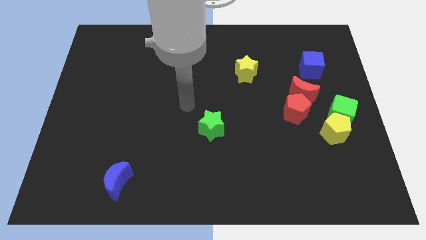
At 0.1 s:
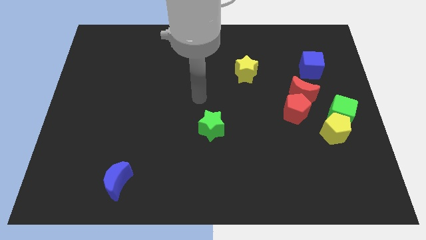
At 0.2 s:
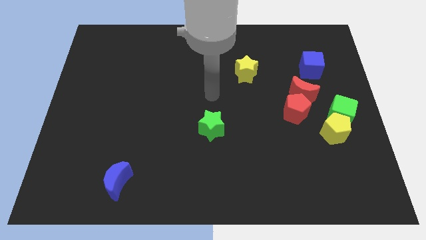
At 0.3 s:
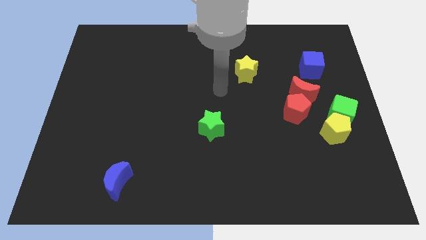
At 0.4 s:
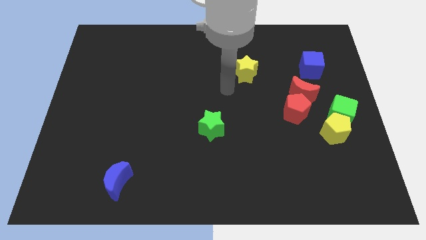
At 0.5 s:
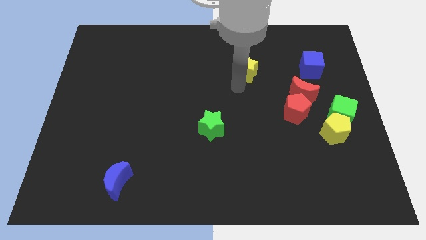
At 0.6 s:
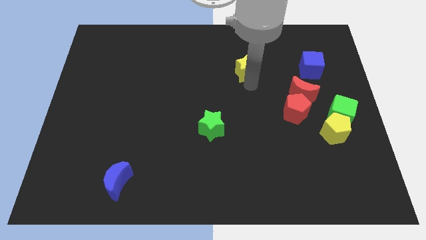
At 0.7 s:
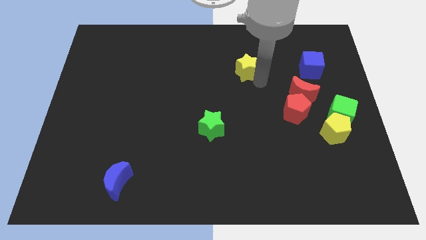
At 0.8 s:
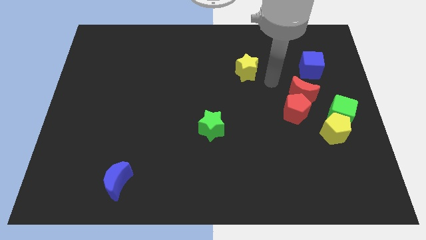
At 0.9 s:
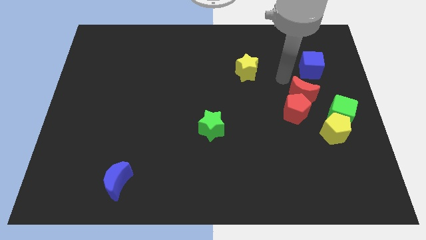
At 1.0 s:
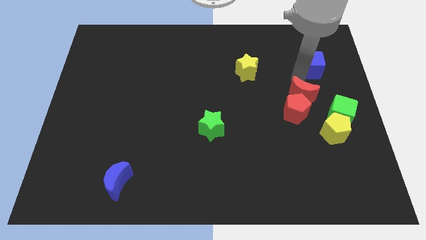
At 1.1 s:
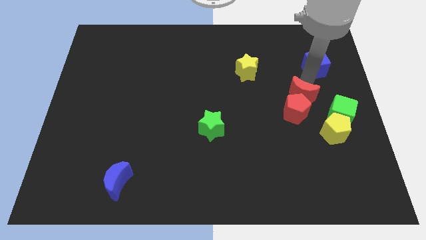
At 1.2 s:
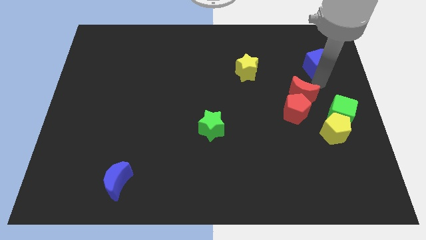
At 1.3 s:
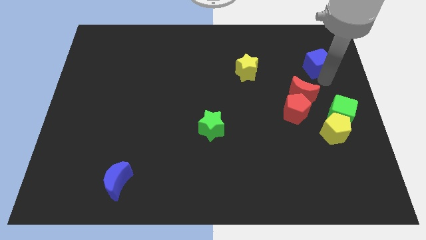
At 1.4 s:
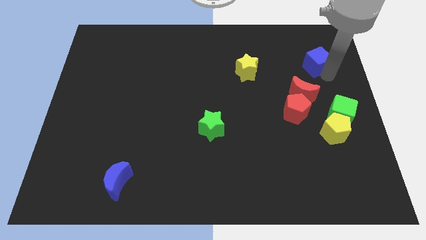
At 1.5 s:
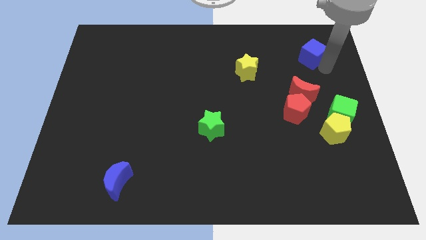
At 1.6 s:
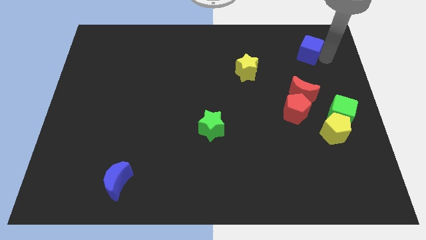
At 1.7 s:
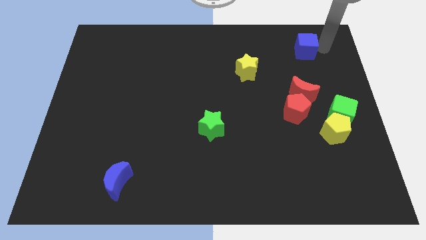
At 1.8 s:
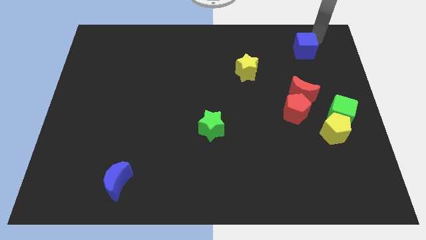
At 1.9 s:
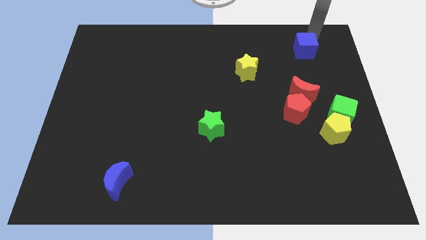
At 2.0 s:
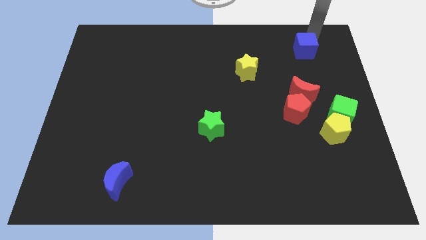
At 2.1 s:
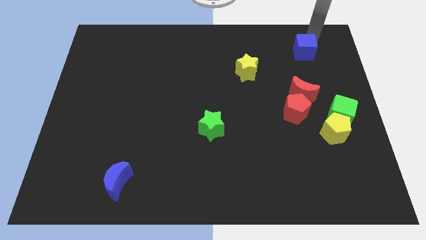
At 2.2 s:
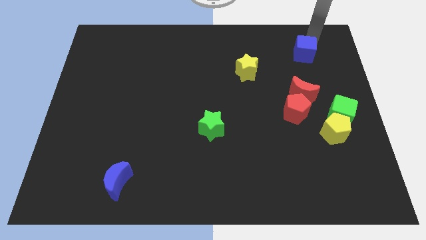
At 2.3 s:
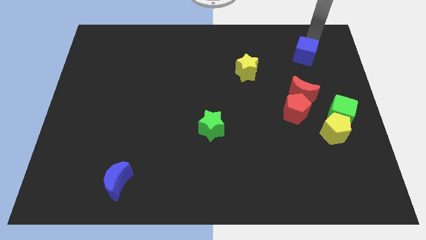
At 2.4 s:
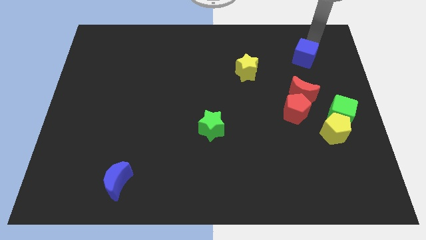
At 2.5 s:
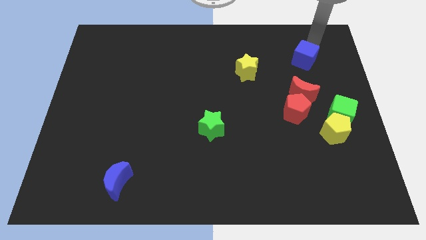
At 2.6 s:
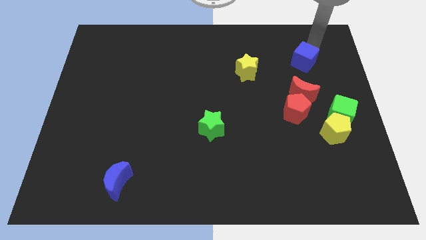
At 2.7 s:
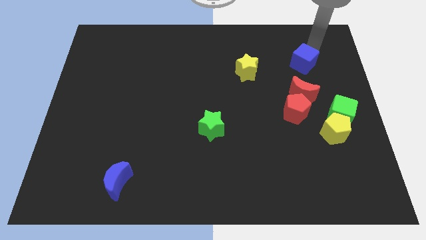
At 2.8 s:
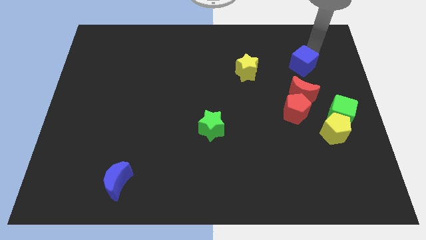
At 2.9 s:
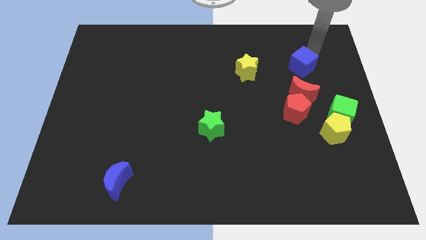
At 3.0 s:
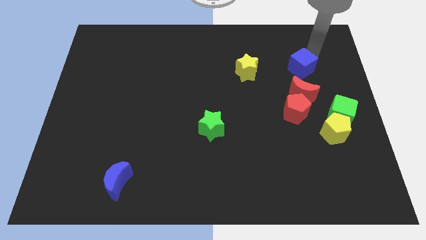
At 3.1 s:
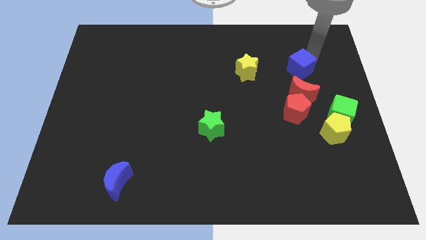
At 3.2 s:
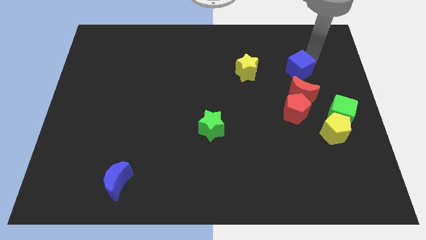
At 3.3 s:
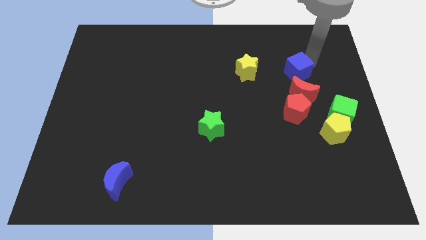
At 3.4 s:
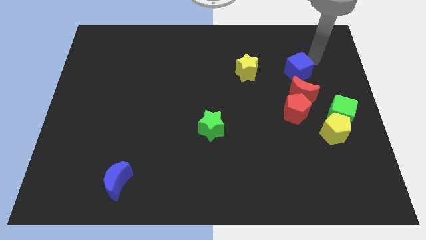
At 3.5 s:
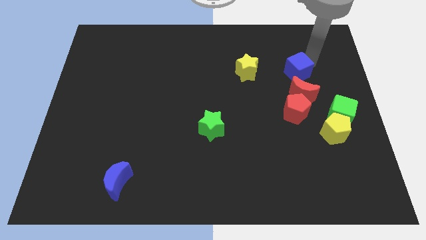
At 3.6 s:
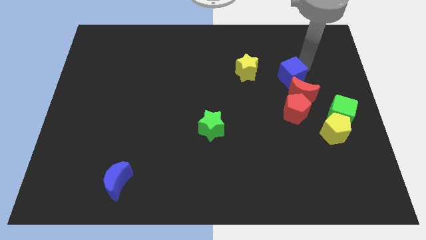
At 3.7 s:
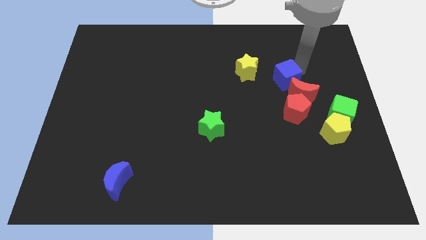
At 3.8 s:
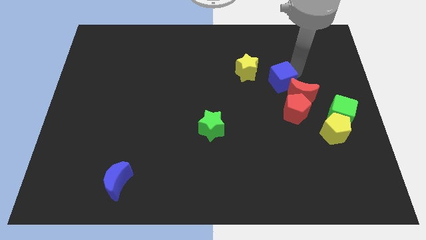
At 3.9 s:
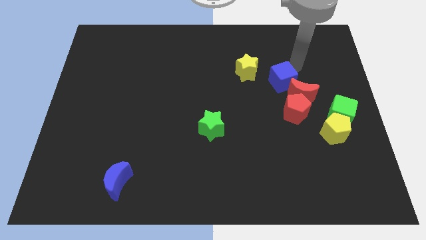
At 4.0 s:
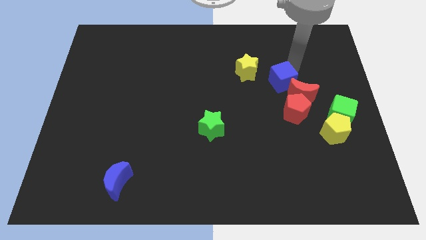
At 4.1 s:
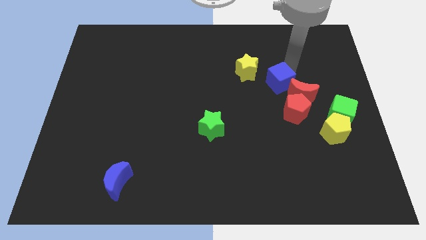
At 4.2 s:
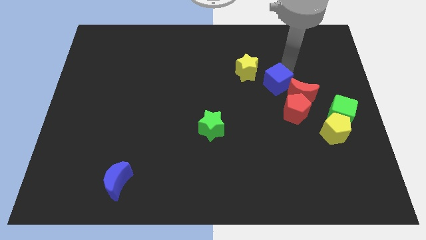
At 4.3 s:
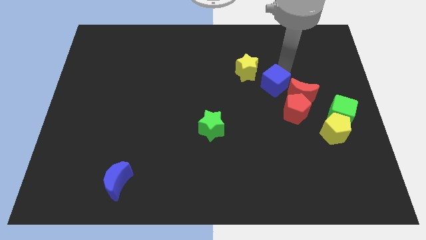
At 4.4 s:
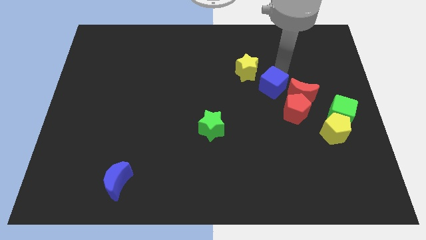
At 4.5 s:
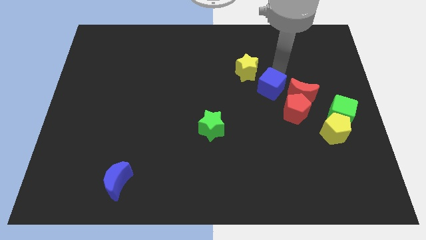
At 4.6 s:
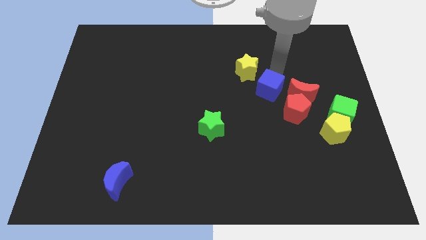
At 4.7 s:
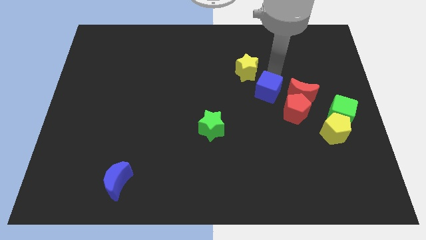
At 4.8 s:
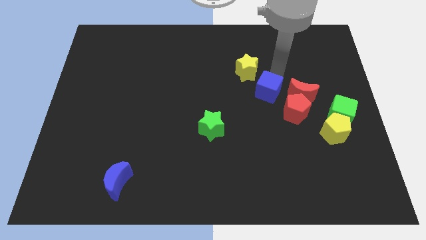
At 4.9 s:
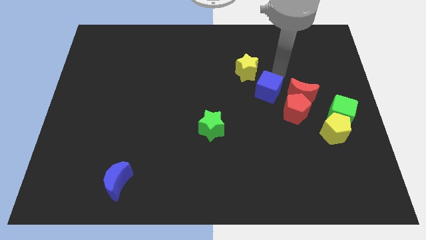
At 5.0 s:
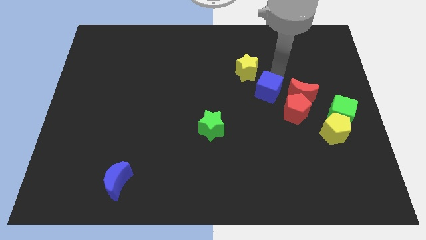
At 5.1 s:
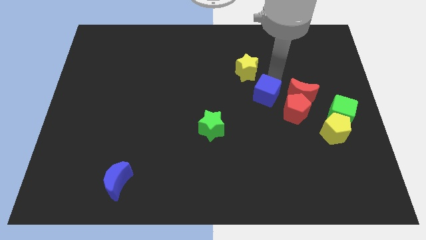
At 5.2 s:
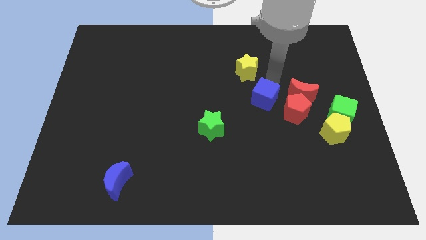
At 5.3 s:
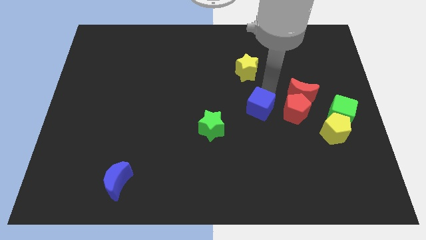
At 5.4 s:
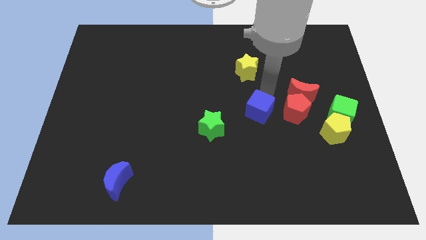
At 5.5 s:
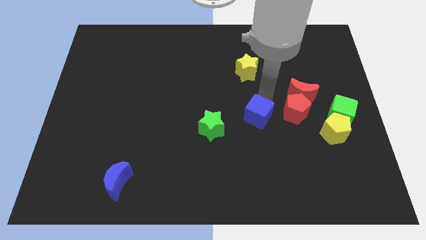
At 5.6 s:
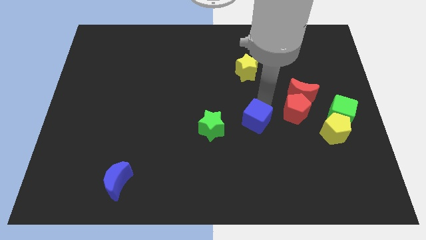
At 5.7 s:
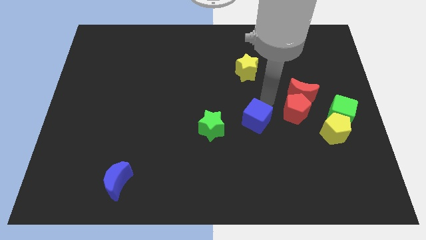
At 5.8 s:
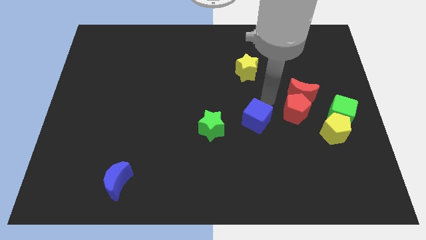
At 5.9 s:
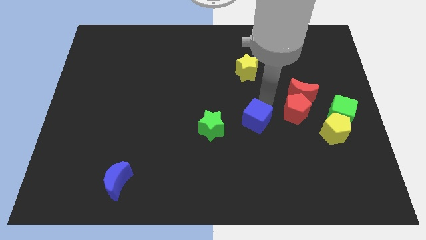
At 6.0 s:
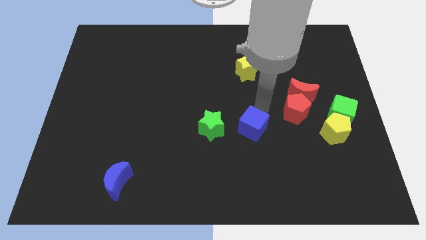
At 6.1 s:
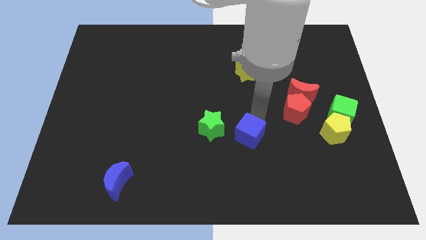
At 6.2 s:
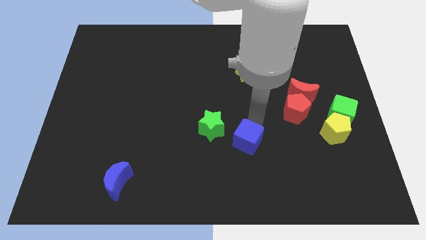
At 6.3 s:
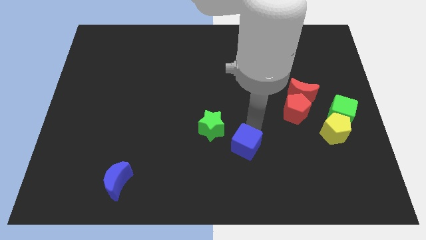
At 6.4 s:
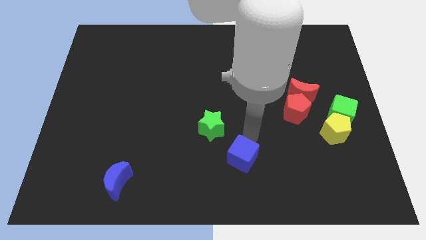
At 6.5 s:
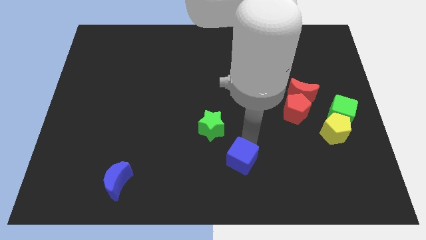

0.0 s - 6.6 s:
put the blue cube to the bottom

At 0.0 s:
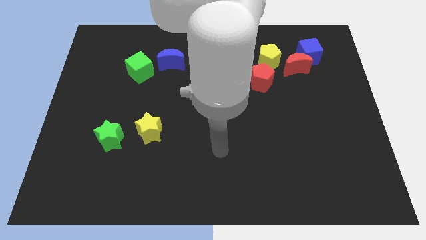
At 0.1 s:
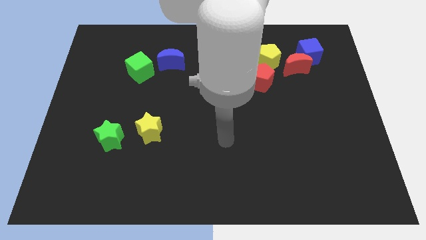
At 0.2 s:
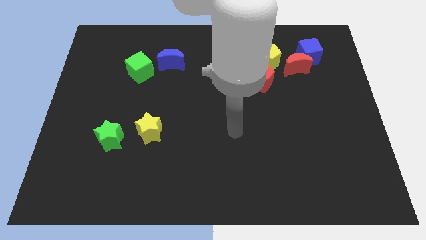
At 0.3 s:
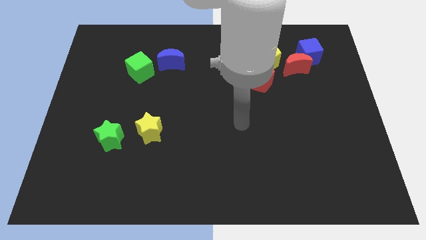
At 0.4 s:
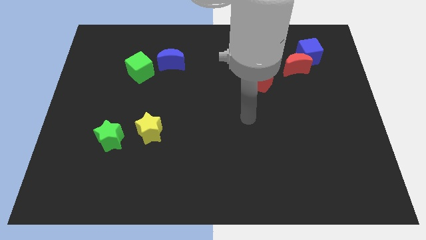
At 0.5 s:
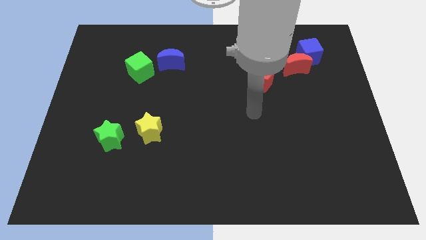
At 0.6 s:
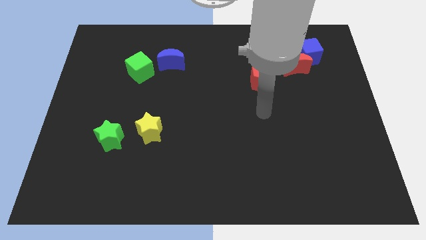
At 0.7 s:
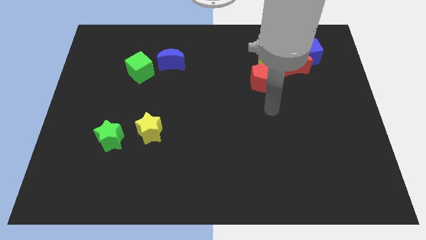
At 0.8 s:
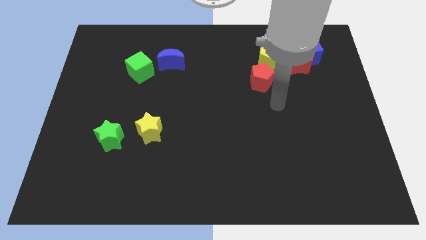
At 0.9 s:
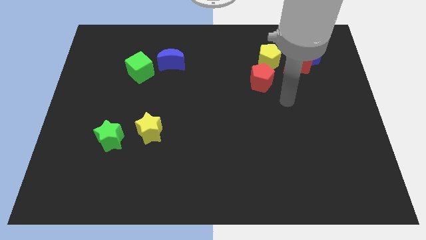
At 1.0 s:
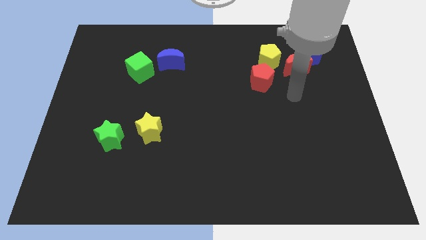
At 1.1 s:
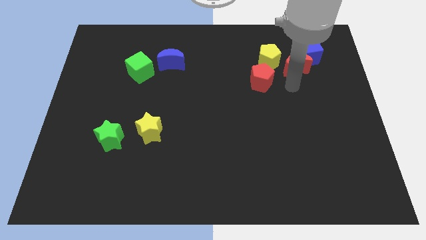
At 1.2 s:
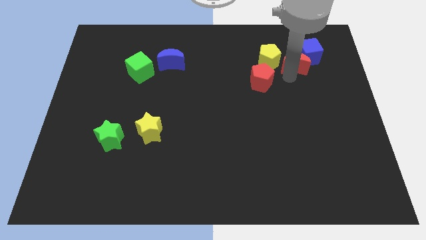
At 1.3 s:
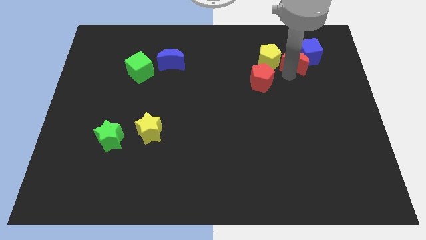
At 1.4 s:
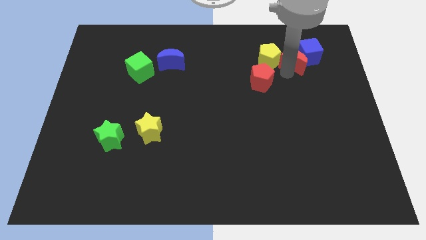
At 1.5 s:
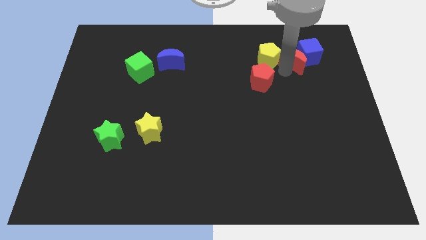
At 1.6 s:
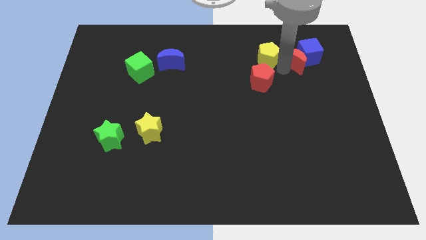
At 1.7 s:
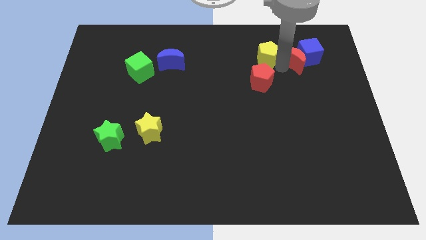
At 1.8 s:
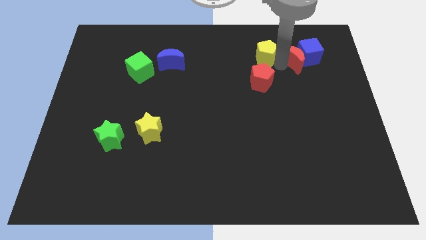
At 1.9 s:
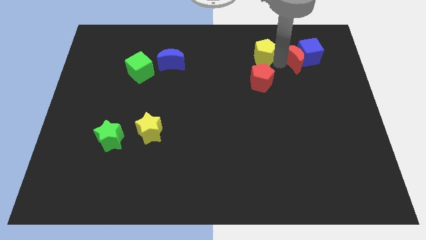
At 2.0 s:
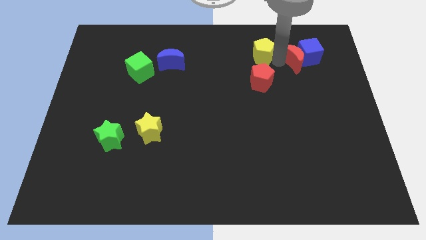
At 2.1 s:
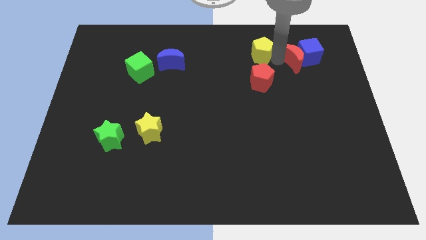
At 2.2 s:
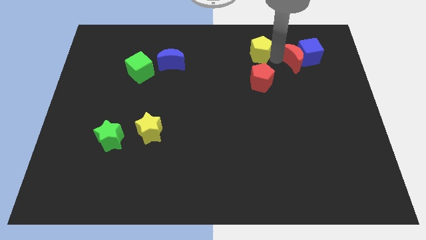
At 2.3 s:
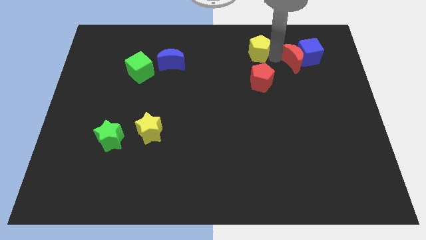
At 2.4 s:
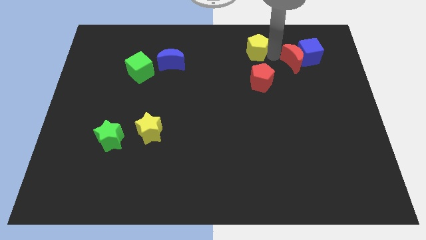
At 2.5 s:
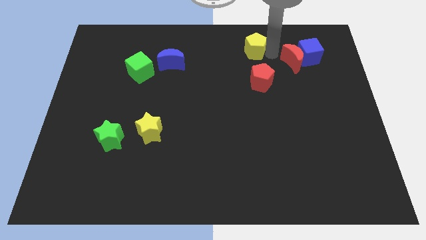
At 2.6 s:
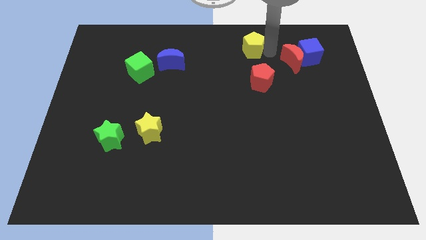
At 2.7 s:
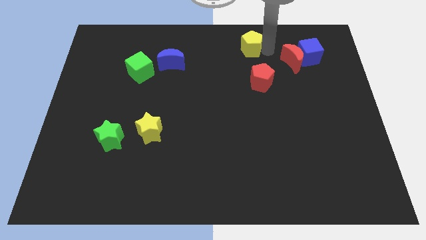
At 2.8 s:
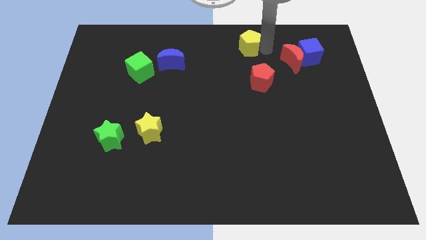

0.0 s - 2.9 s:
put the yellow pentagon to the top side
